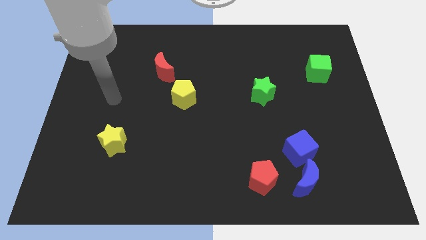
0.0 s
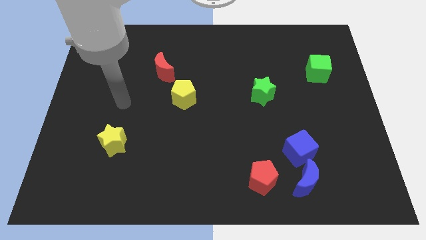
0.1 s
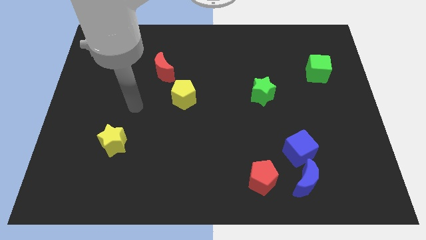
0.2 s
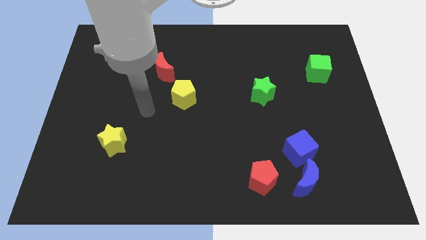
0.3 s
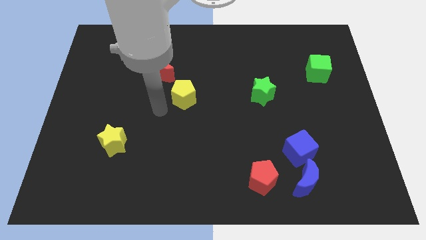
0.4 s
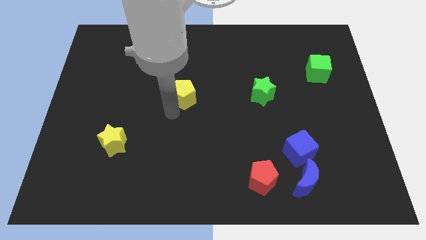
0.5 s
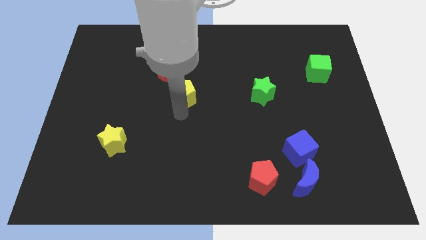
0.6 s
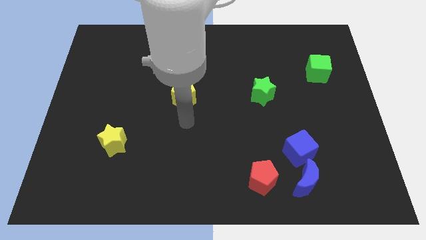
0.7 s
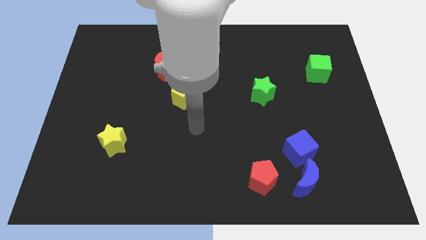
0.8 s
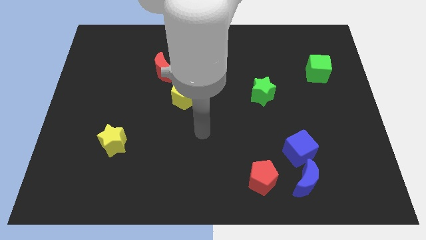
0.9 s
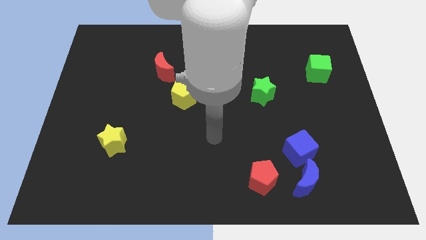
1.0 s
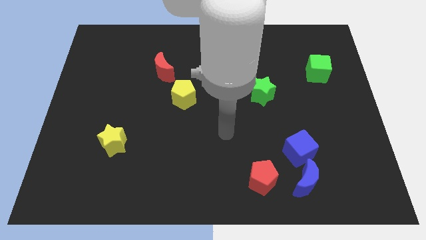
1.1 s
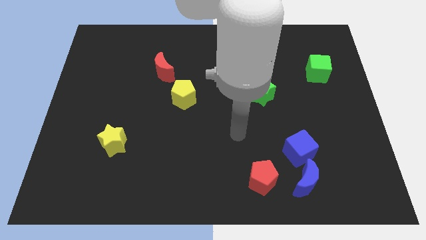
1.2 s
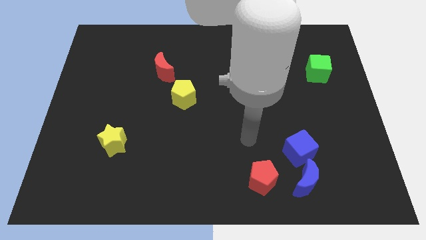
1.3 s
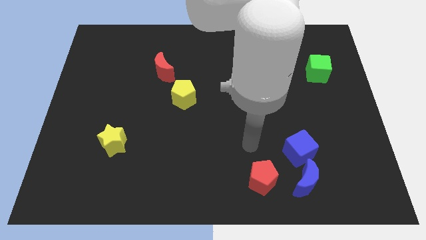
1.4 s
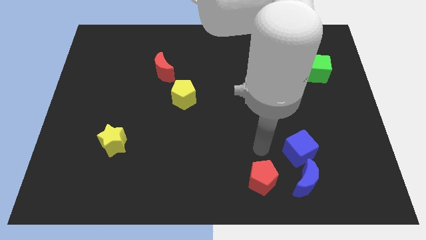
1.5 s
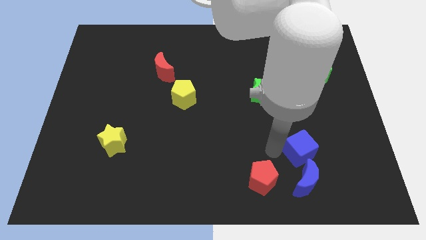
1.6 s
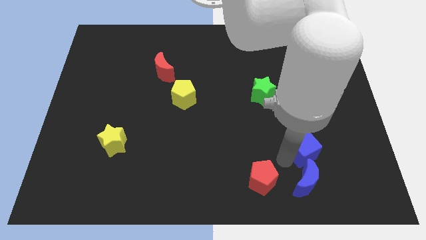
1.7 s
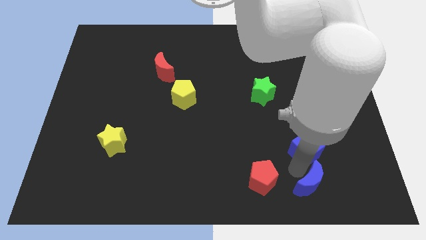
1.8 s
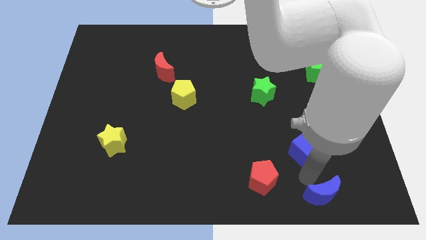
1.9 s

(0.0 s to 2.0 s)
move the blue cube away from the blue moon

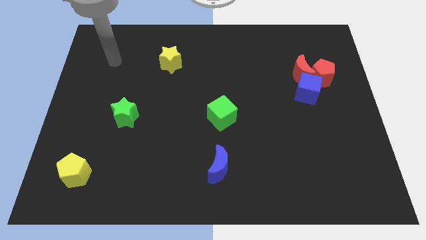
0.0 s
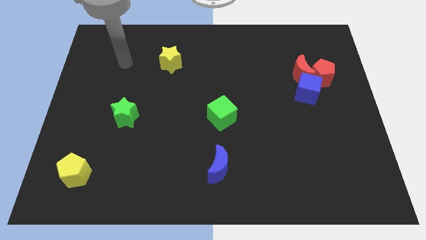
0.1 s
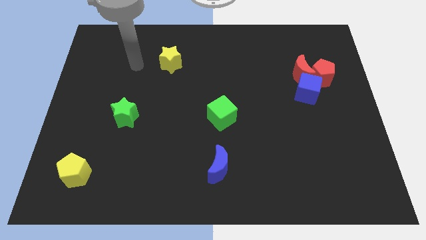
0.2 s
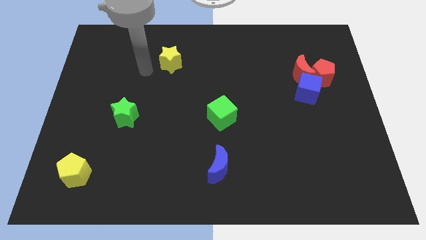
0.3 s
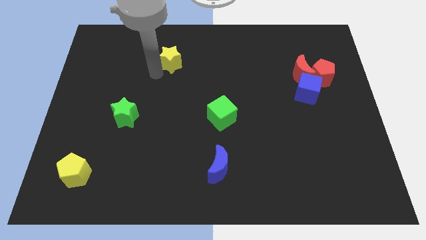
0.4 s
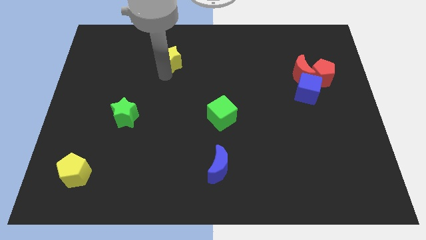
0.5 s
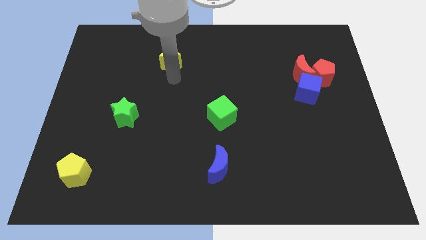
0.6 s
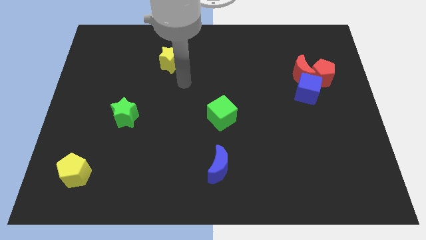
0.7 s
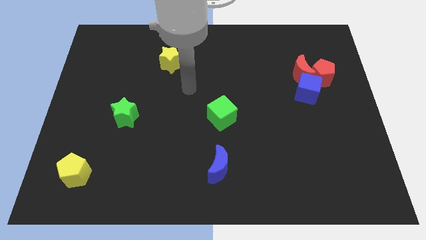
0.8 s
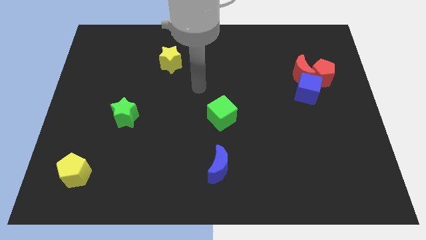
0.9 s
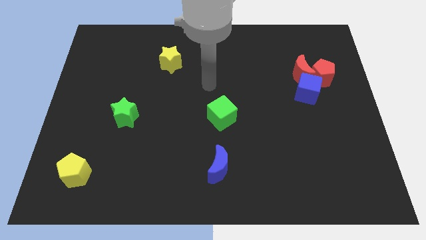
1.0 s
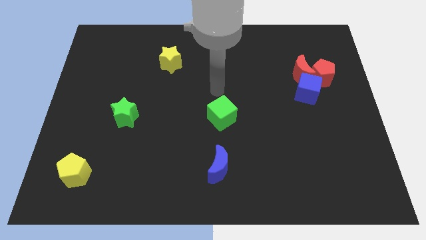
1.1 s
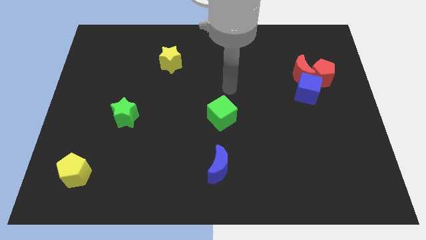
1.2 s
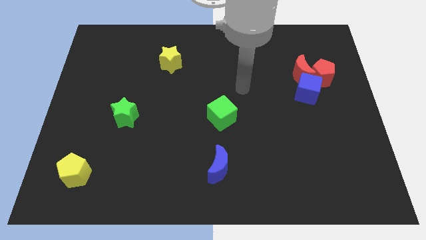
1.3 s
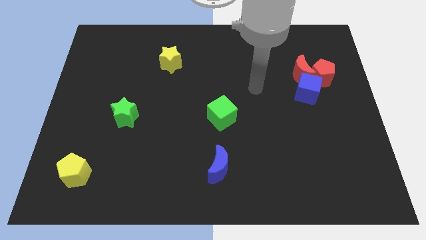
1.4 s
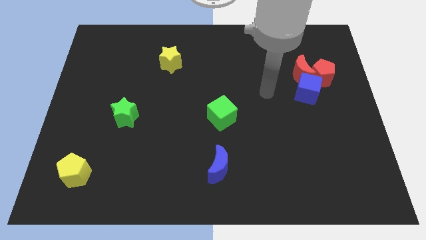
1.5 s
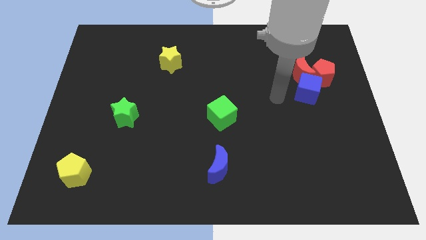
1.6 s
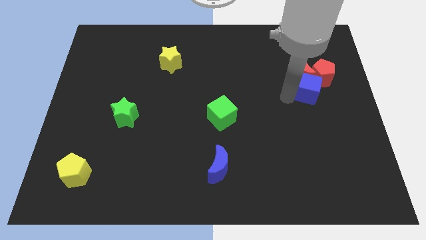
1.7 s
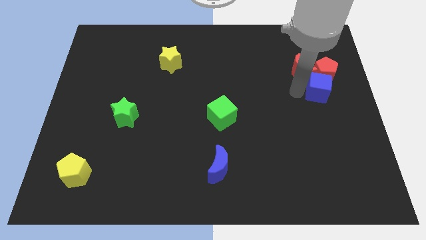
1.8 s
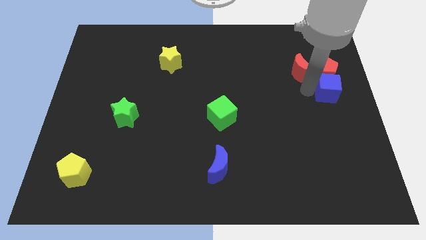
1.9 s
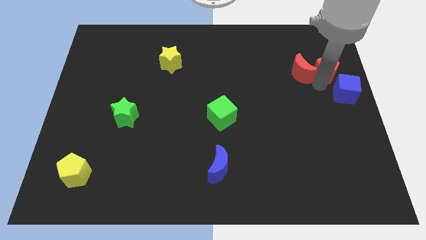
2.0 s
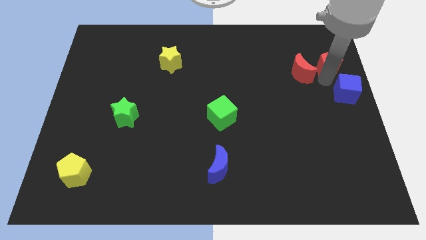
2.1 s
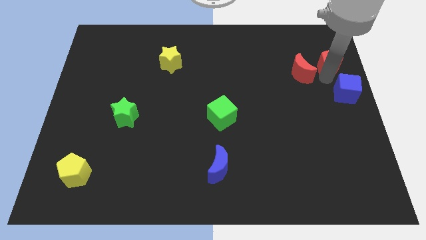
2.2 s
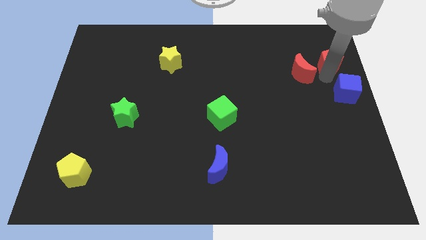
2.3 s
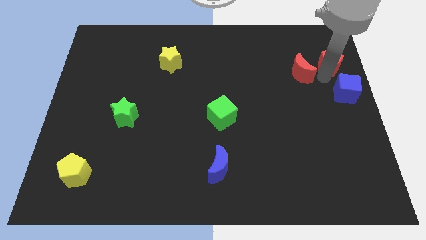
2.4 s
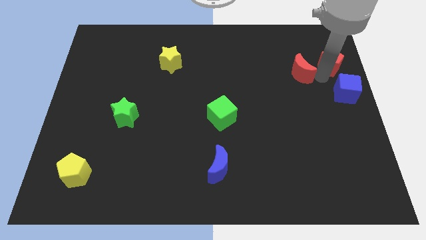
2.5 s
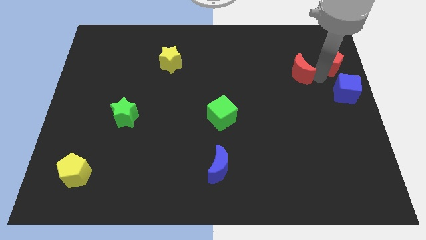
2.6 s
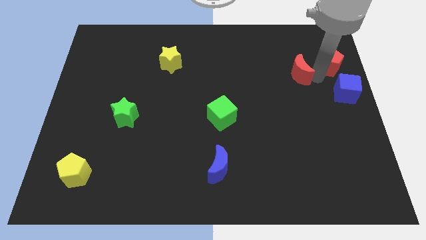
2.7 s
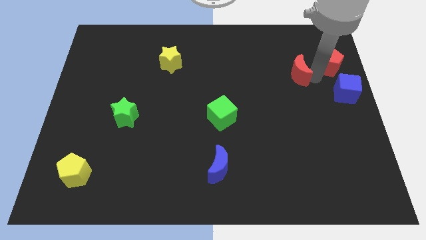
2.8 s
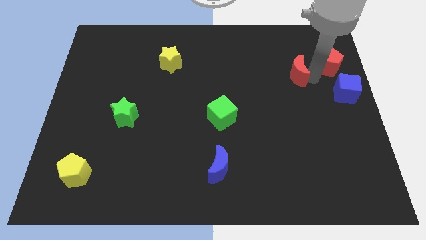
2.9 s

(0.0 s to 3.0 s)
separate the red moon from the red pentagon and blue cube

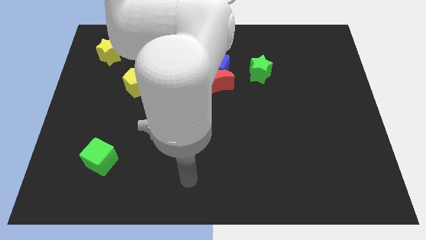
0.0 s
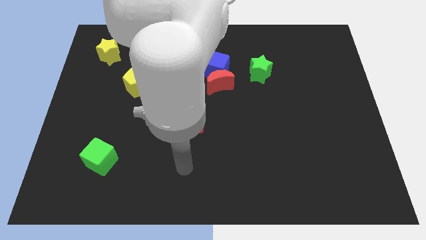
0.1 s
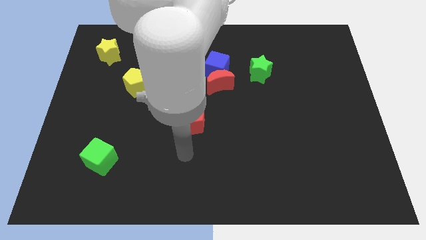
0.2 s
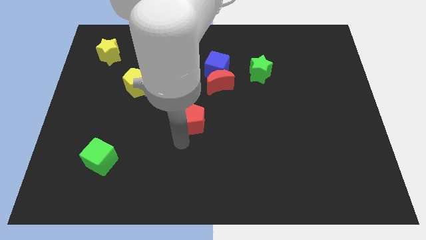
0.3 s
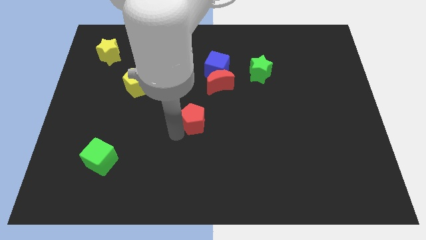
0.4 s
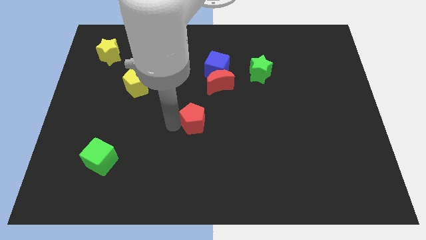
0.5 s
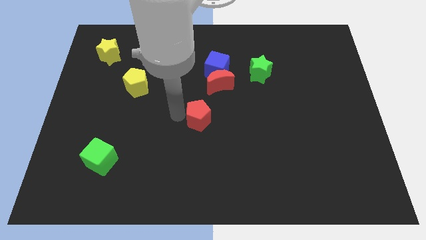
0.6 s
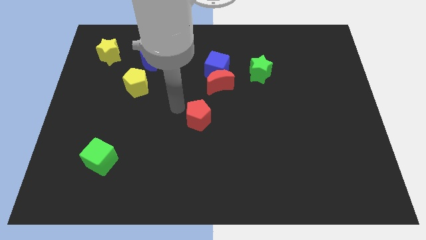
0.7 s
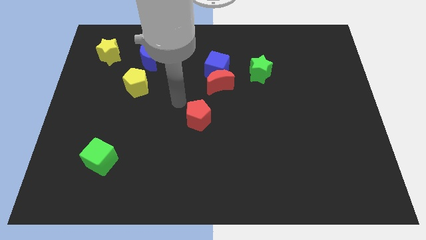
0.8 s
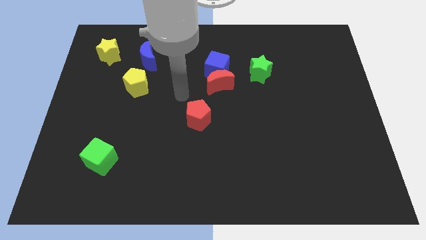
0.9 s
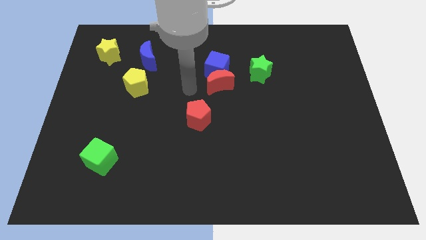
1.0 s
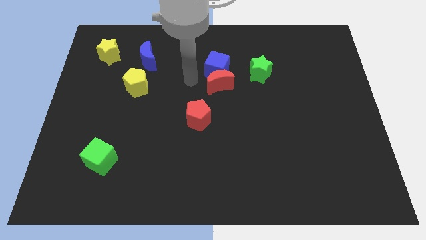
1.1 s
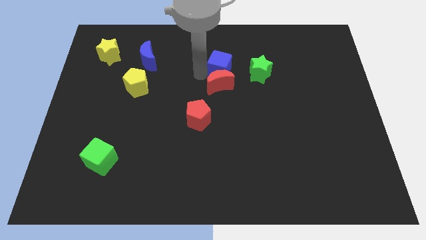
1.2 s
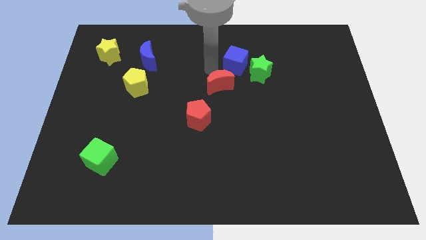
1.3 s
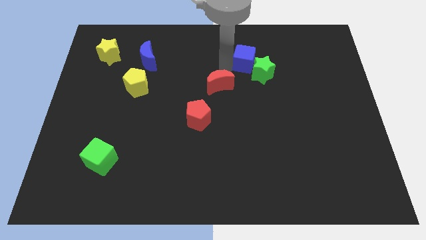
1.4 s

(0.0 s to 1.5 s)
pull the red moon apart from the blue cube

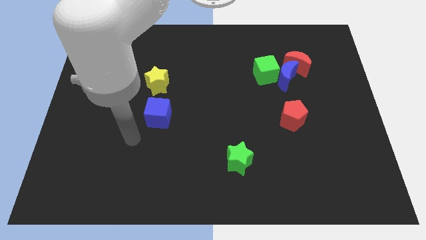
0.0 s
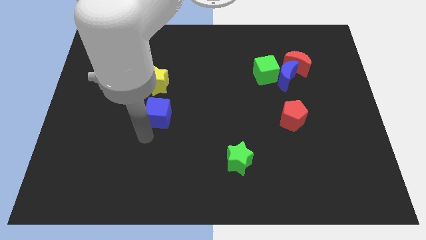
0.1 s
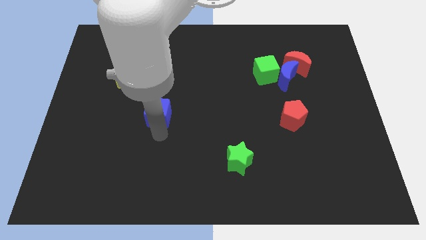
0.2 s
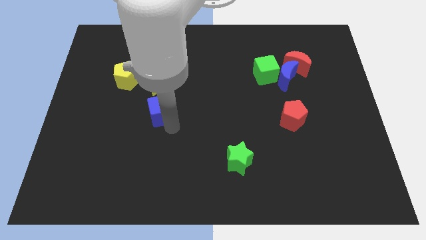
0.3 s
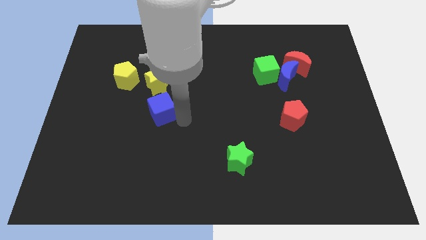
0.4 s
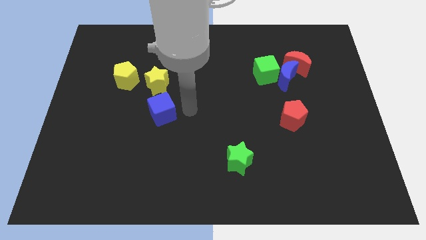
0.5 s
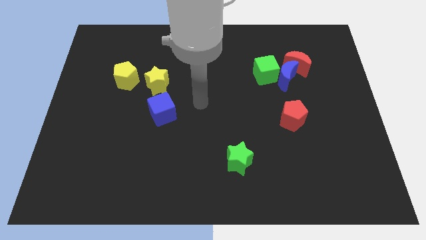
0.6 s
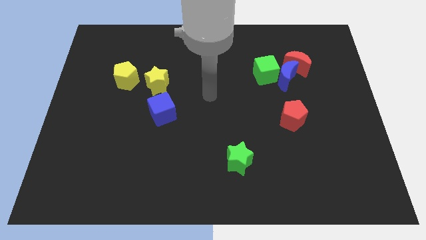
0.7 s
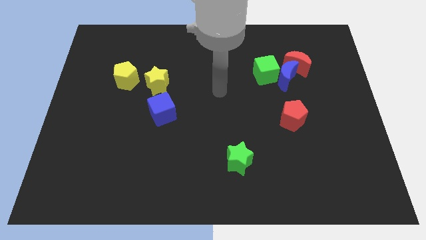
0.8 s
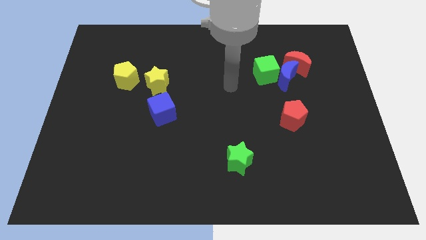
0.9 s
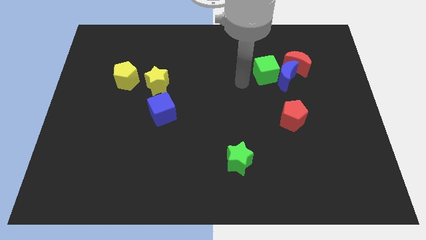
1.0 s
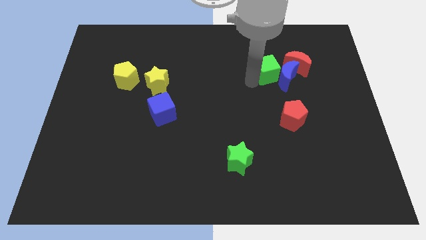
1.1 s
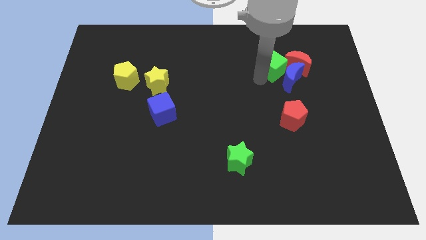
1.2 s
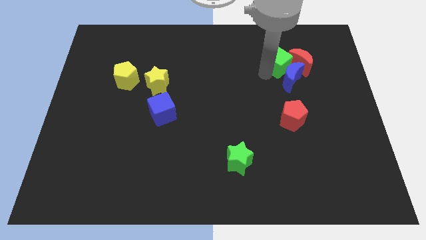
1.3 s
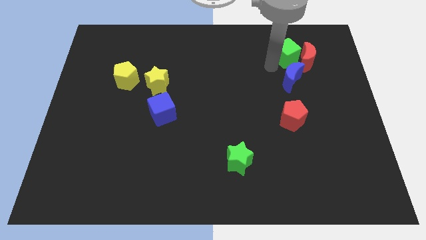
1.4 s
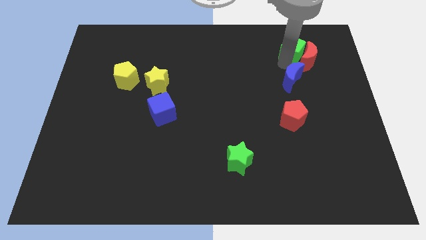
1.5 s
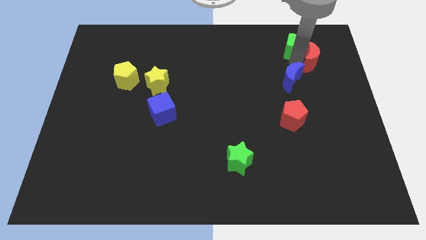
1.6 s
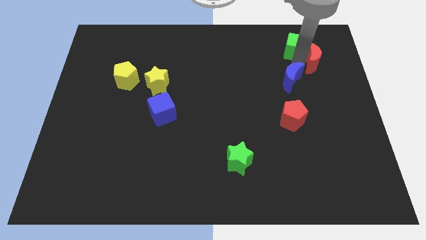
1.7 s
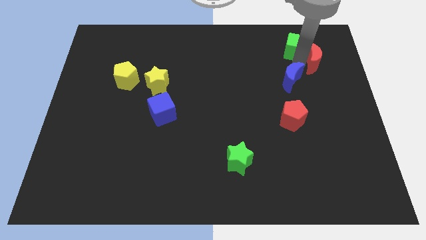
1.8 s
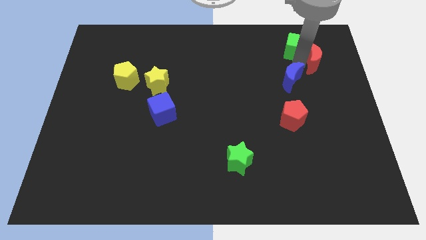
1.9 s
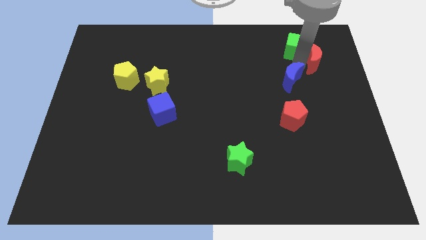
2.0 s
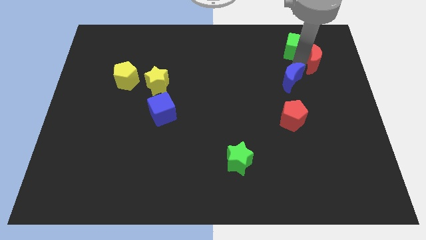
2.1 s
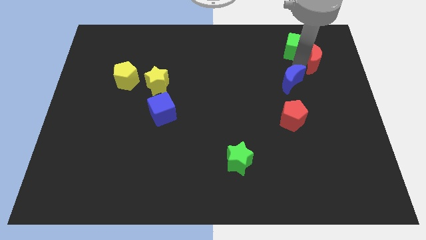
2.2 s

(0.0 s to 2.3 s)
pull the blue moon apart from the green cube and red moon

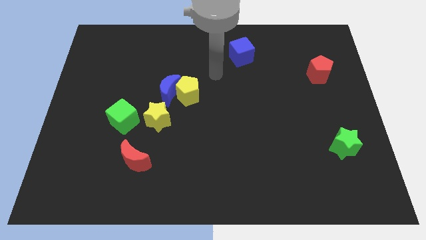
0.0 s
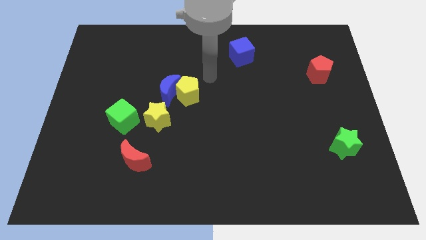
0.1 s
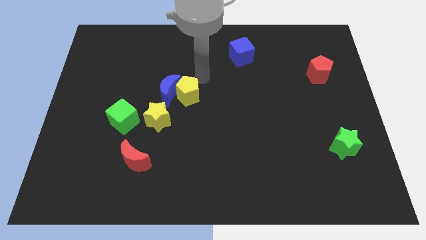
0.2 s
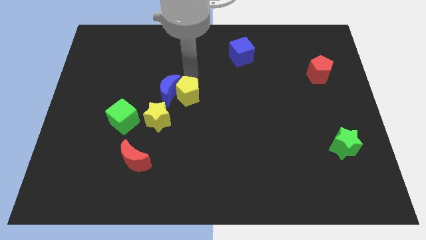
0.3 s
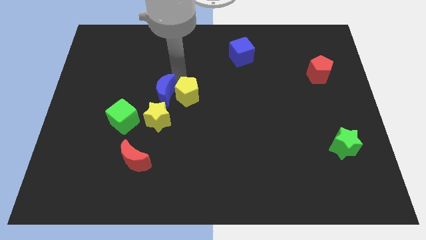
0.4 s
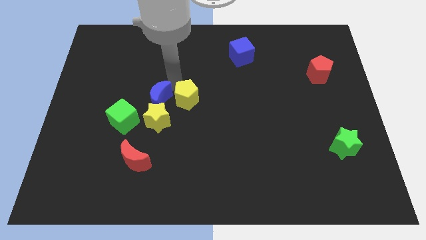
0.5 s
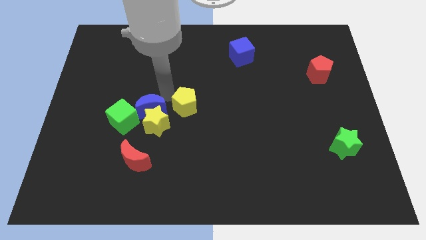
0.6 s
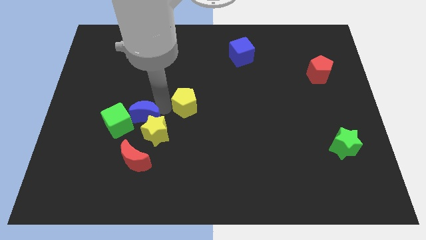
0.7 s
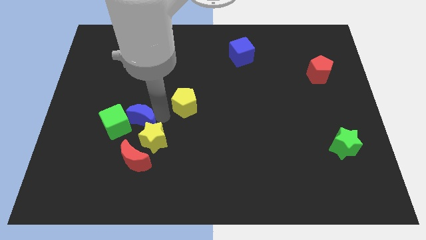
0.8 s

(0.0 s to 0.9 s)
move the yellow pentagon away from the blue moon
